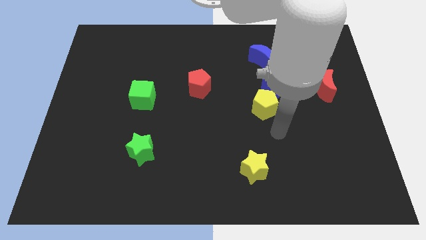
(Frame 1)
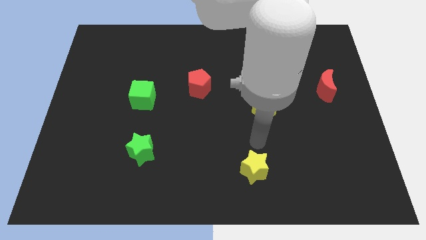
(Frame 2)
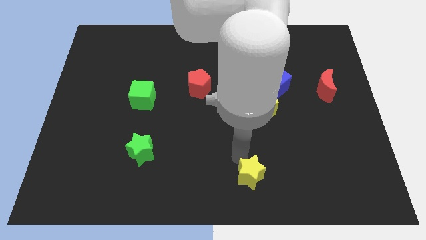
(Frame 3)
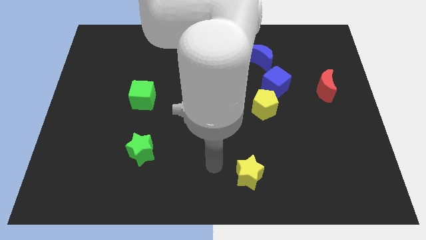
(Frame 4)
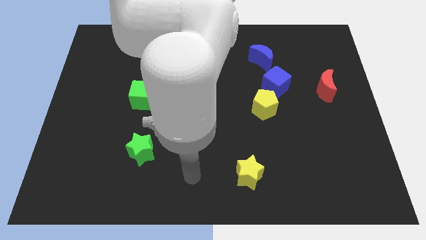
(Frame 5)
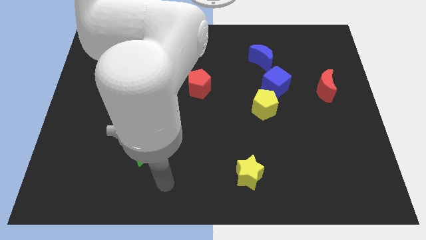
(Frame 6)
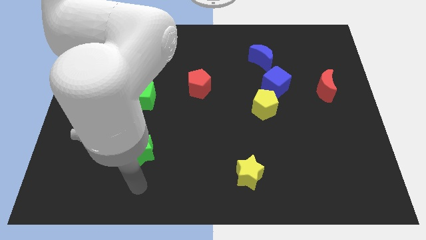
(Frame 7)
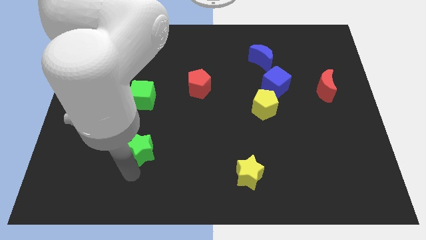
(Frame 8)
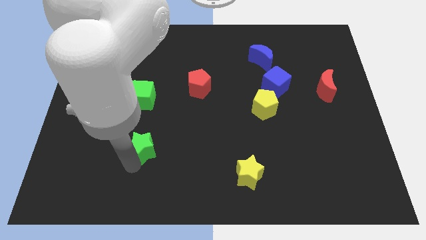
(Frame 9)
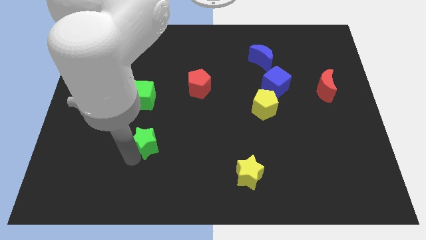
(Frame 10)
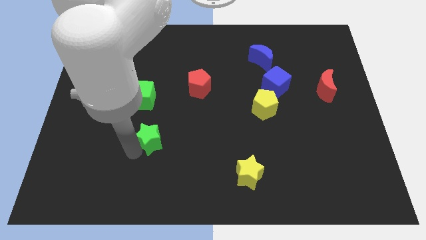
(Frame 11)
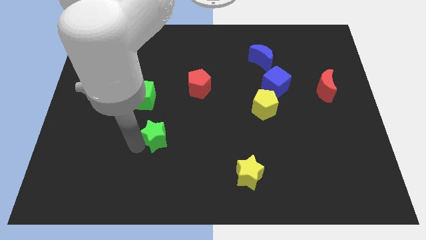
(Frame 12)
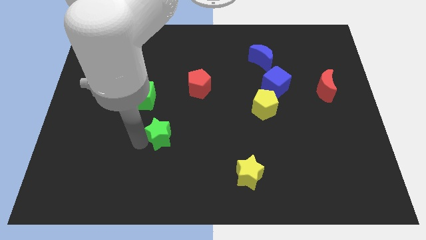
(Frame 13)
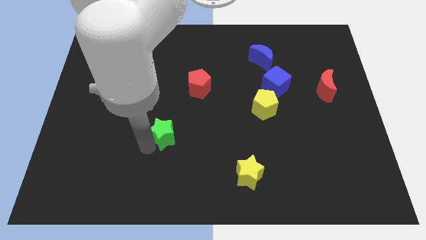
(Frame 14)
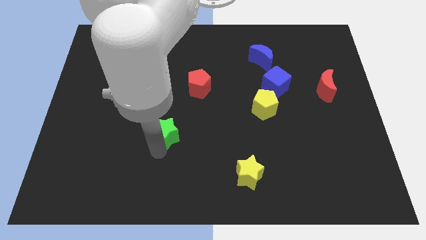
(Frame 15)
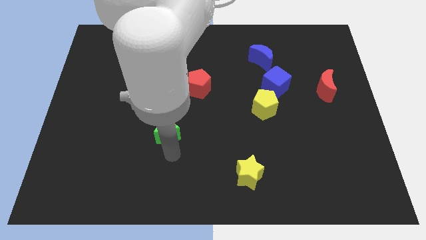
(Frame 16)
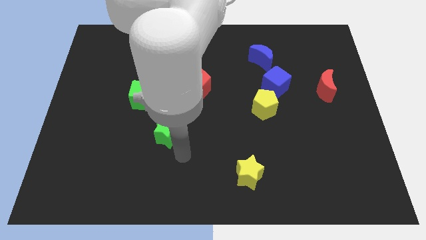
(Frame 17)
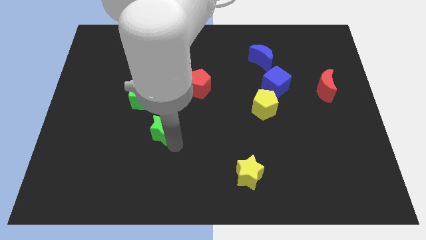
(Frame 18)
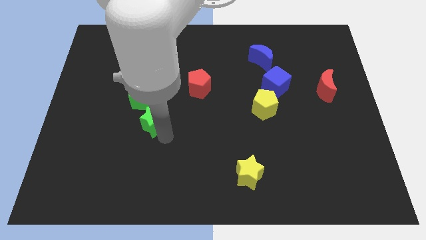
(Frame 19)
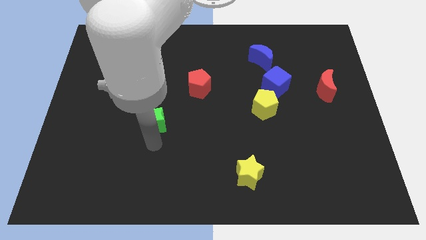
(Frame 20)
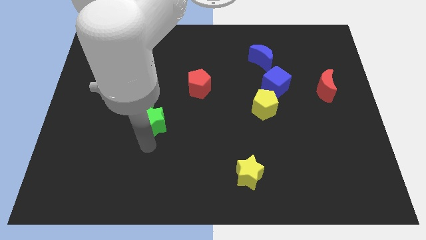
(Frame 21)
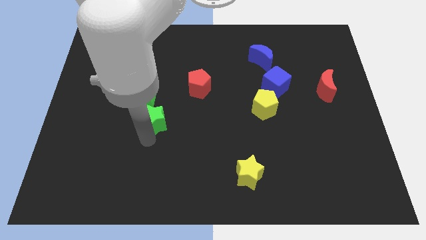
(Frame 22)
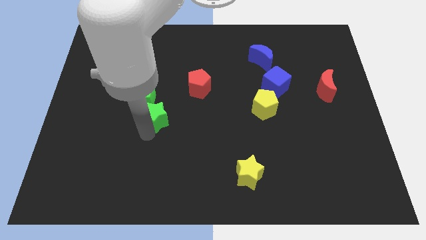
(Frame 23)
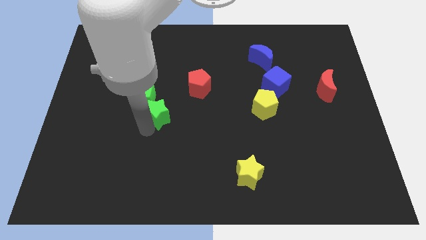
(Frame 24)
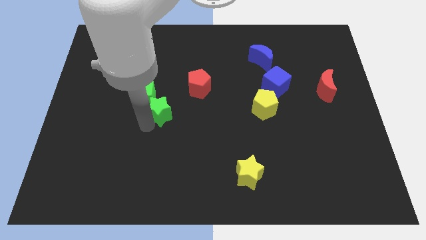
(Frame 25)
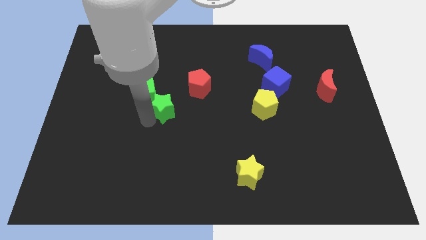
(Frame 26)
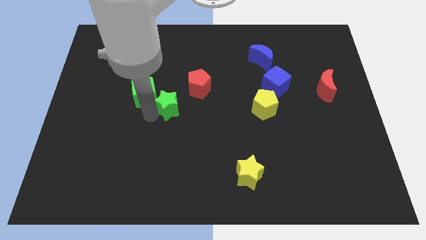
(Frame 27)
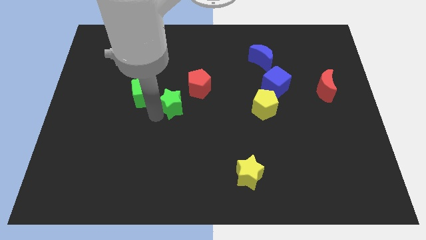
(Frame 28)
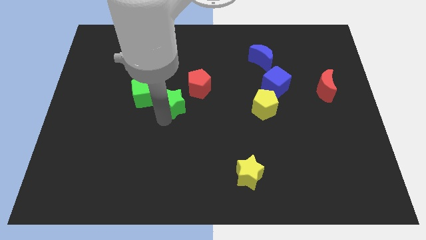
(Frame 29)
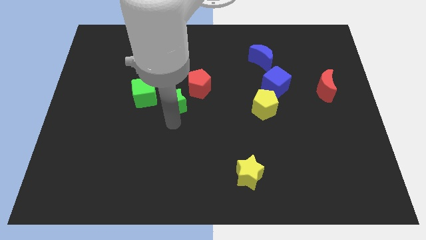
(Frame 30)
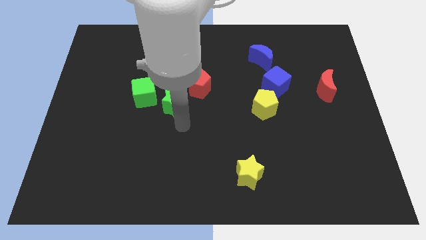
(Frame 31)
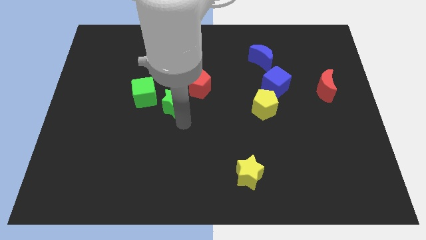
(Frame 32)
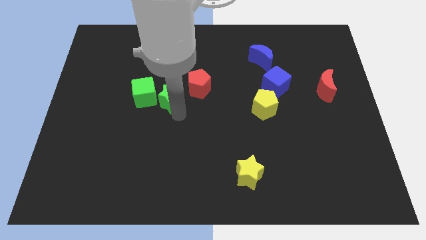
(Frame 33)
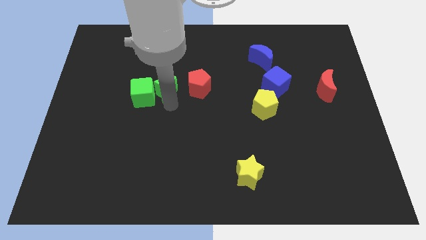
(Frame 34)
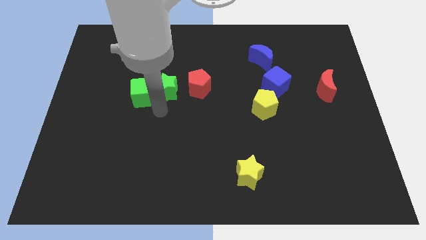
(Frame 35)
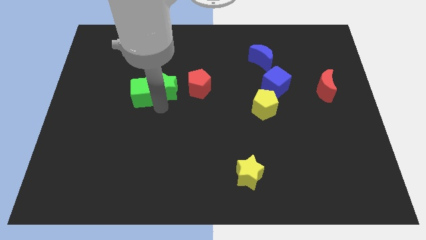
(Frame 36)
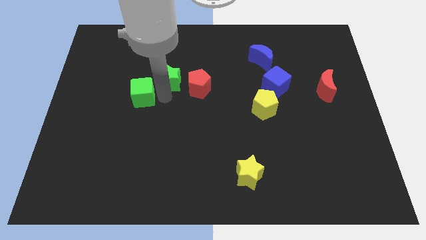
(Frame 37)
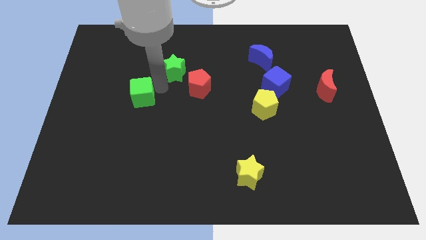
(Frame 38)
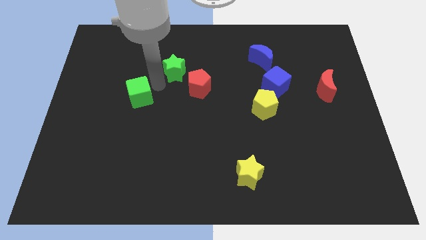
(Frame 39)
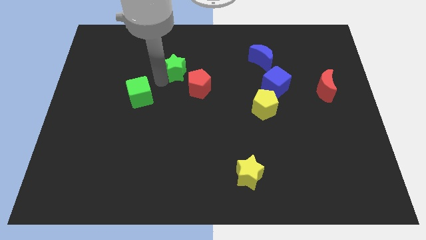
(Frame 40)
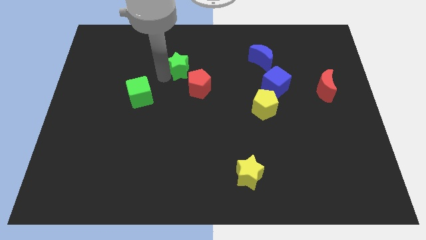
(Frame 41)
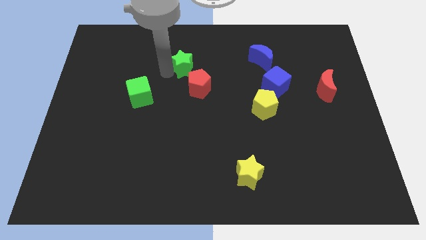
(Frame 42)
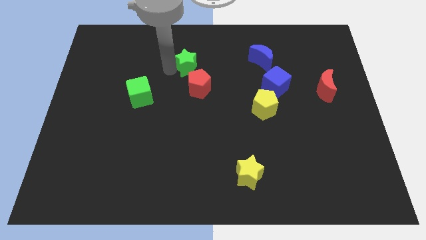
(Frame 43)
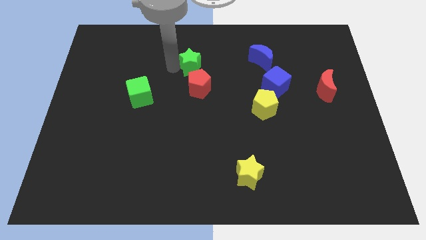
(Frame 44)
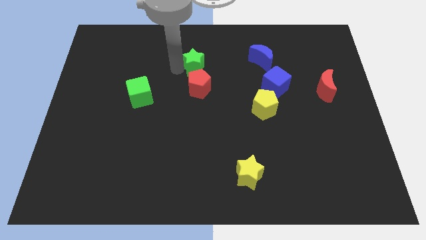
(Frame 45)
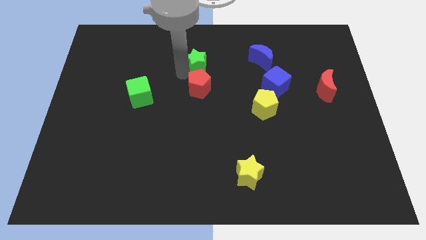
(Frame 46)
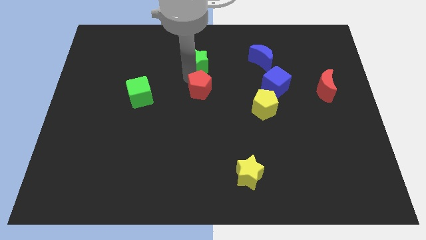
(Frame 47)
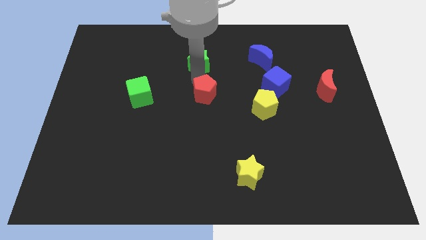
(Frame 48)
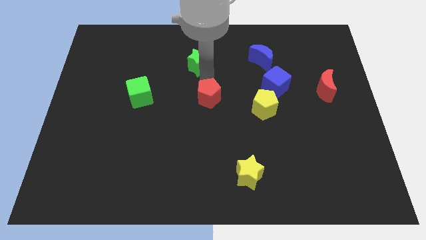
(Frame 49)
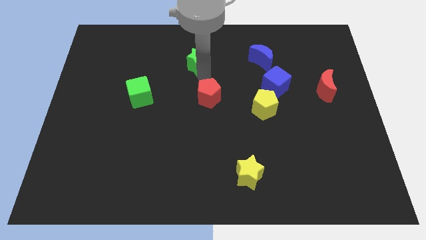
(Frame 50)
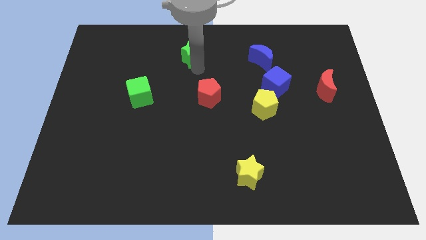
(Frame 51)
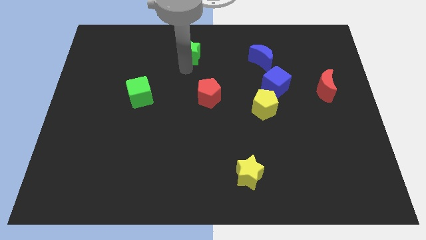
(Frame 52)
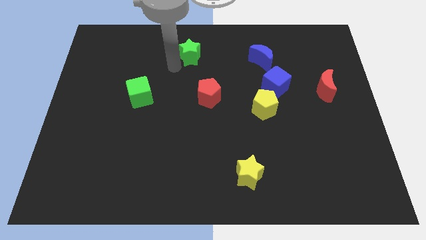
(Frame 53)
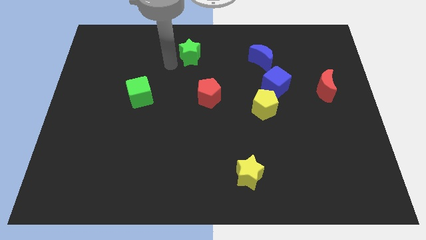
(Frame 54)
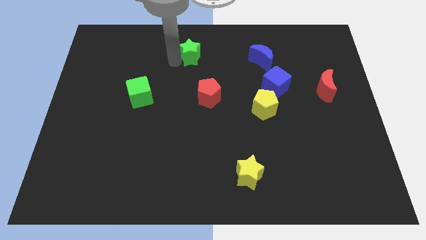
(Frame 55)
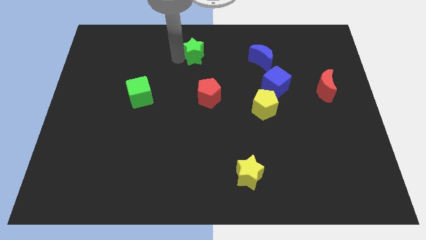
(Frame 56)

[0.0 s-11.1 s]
put the green star to the top

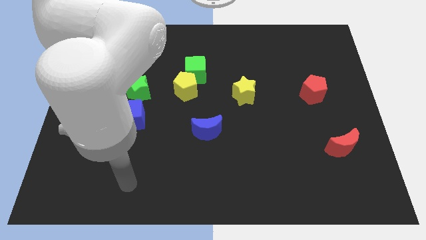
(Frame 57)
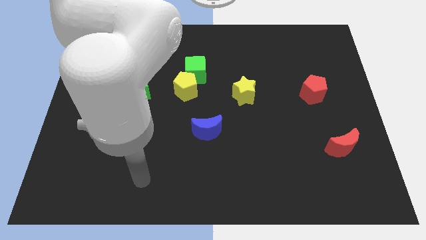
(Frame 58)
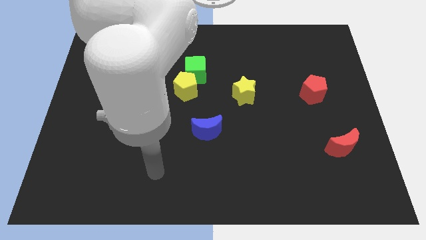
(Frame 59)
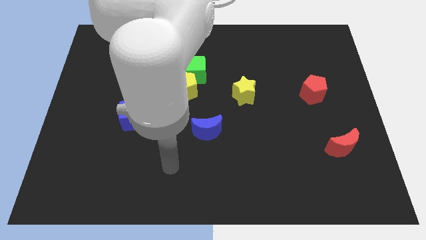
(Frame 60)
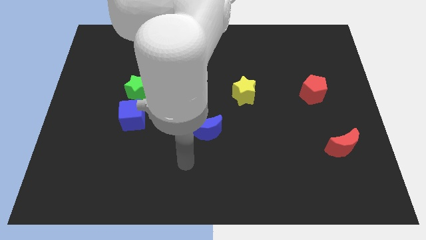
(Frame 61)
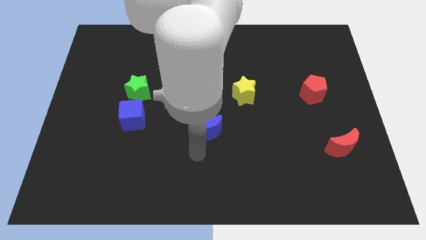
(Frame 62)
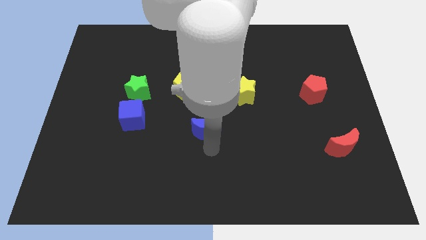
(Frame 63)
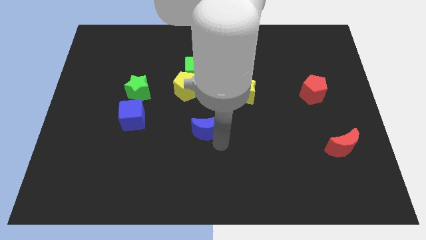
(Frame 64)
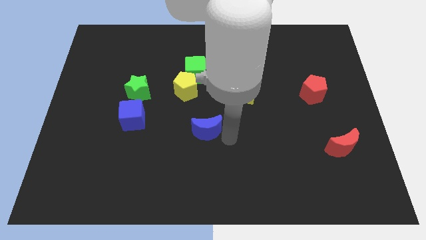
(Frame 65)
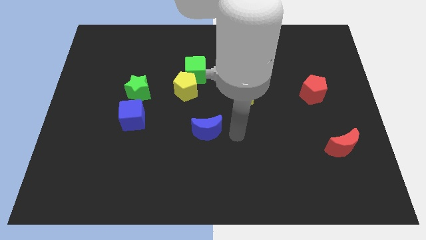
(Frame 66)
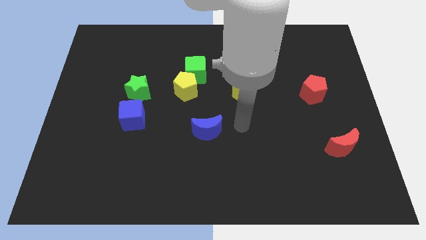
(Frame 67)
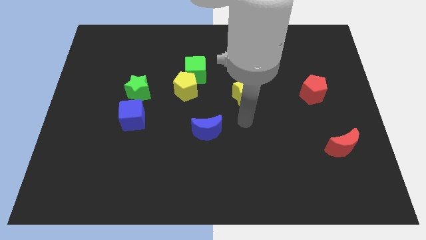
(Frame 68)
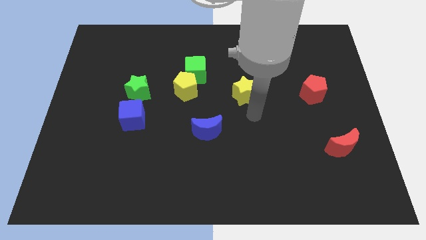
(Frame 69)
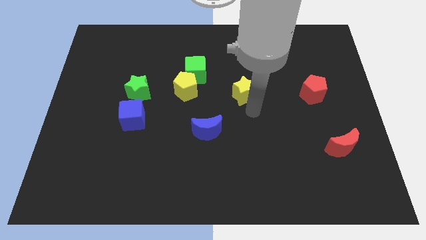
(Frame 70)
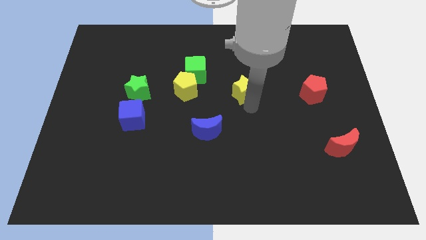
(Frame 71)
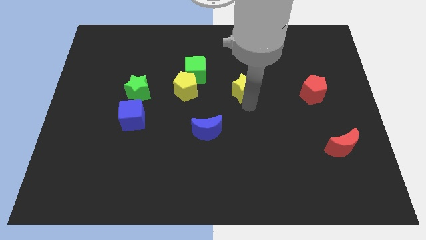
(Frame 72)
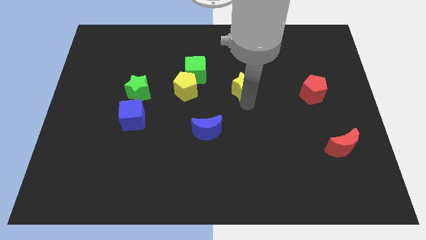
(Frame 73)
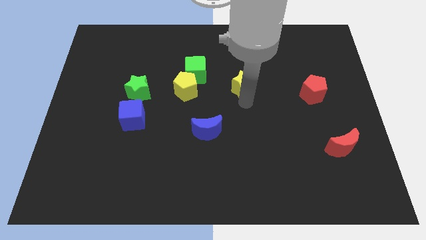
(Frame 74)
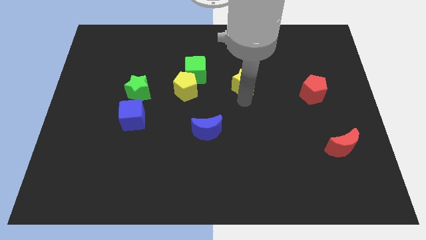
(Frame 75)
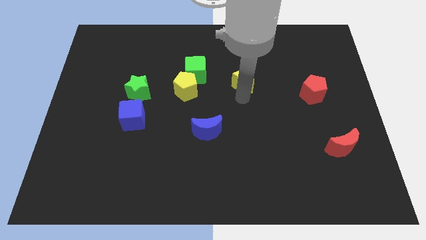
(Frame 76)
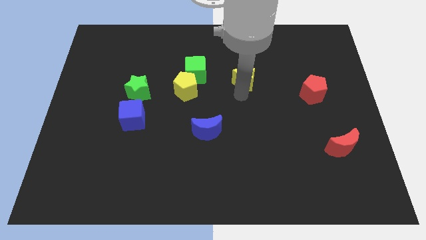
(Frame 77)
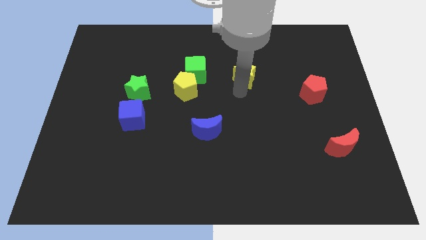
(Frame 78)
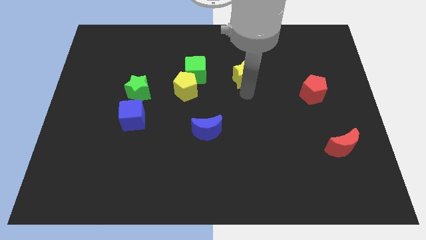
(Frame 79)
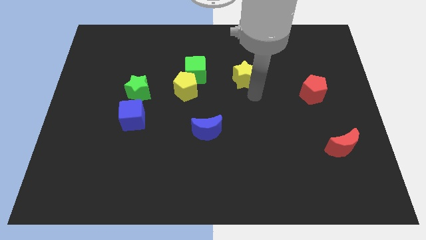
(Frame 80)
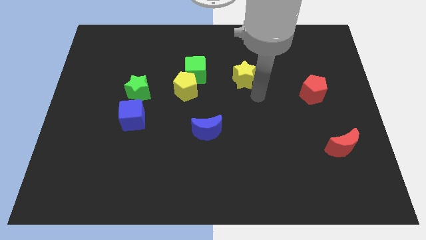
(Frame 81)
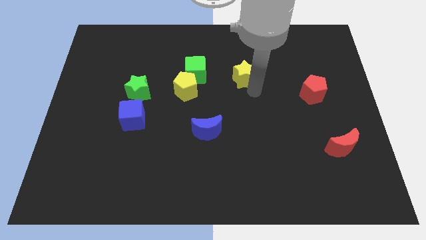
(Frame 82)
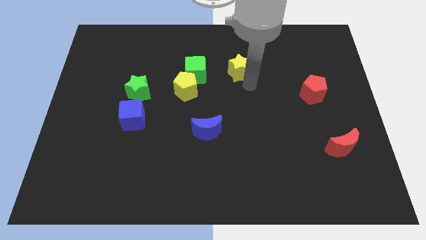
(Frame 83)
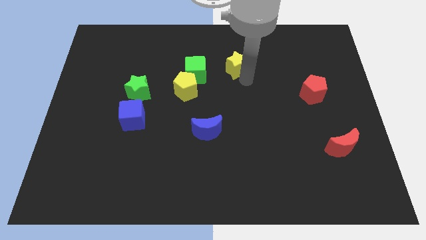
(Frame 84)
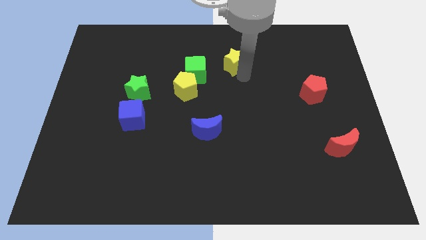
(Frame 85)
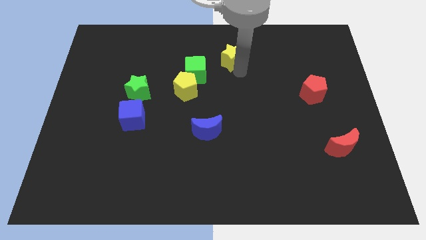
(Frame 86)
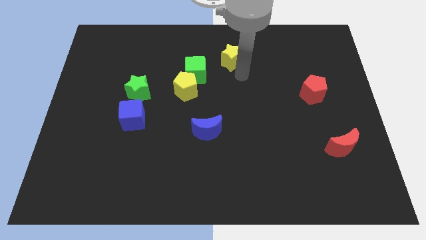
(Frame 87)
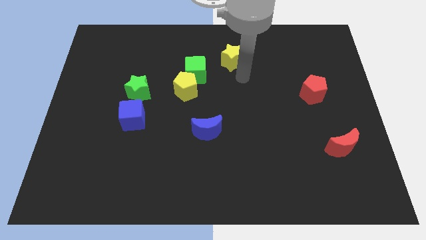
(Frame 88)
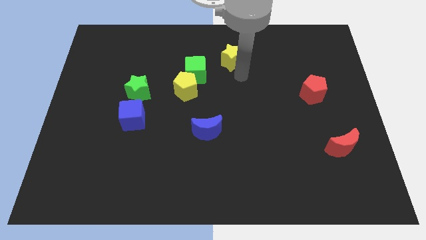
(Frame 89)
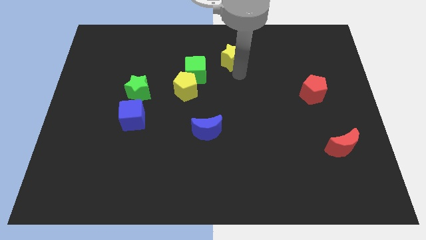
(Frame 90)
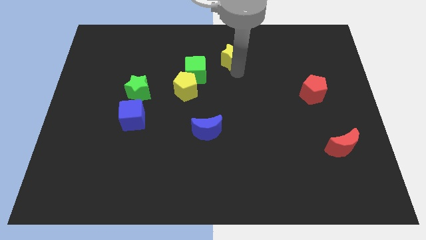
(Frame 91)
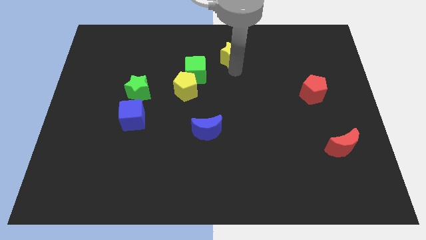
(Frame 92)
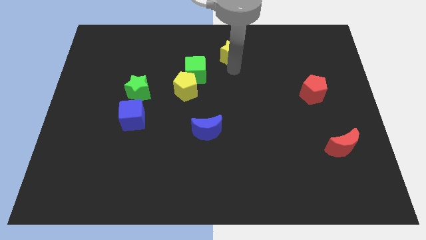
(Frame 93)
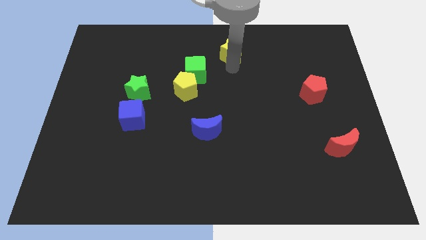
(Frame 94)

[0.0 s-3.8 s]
put the yellow star to the towards your base
